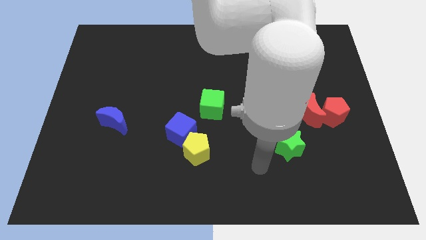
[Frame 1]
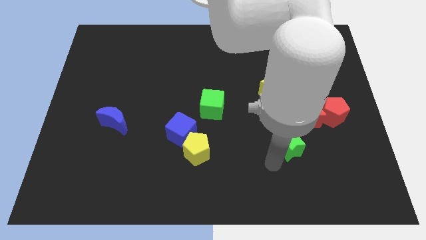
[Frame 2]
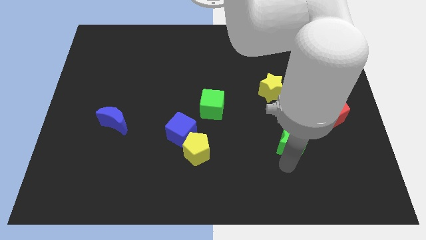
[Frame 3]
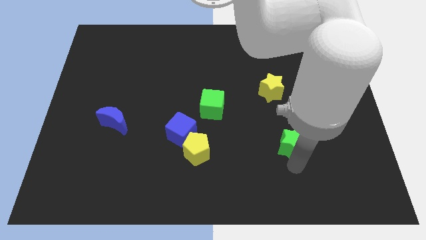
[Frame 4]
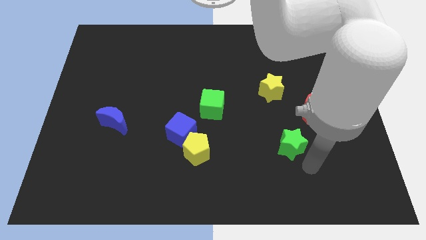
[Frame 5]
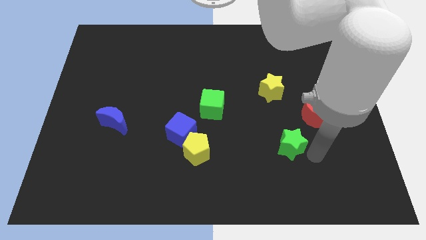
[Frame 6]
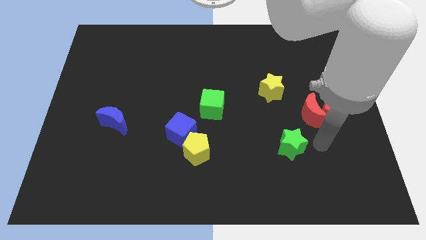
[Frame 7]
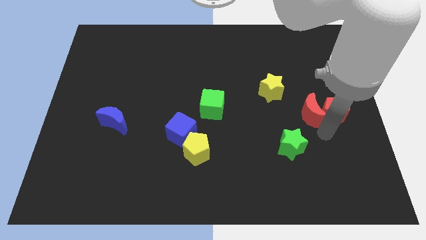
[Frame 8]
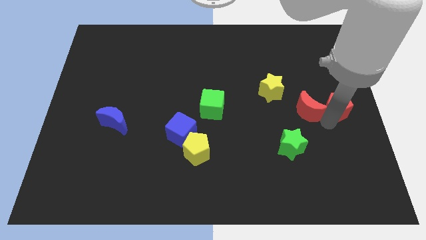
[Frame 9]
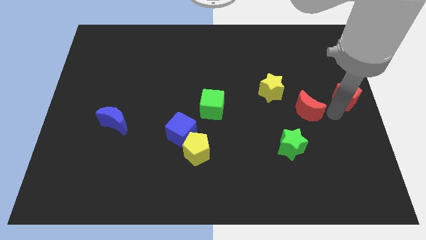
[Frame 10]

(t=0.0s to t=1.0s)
pull the red moon apart from the red pentagon

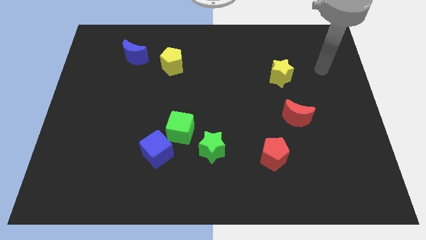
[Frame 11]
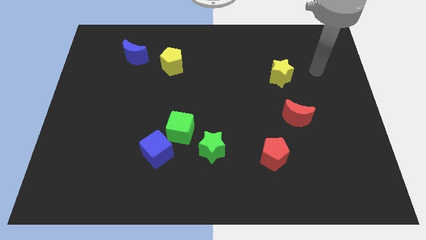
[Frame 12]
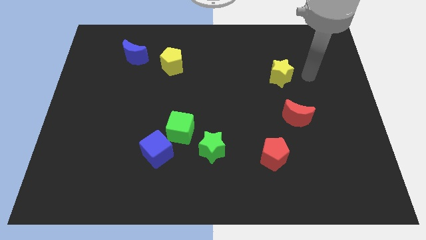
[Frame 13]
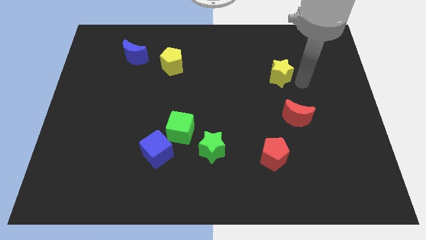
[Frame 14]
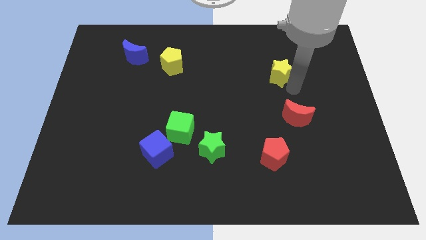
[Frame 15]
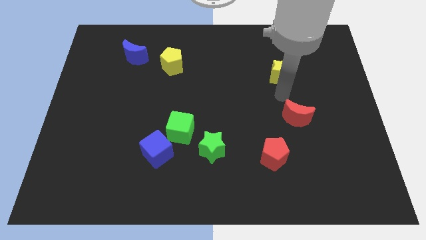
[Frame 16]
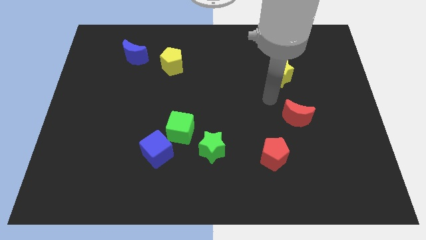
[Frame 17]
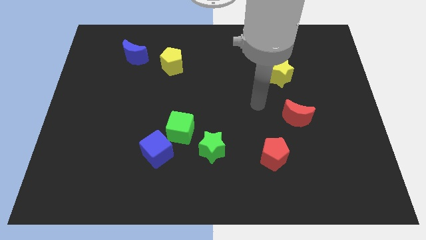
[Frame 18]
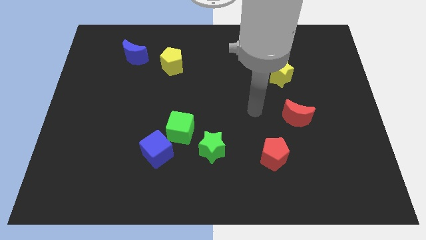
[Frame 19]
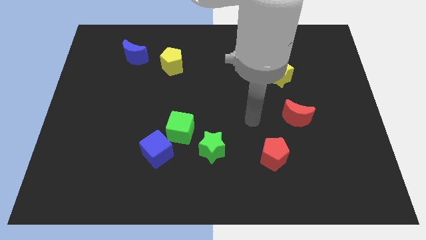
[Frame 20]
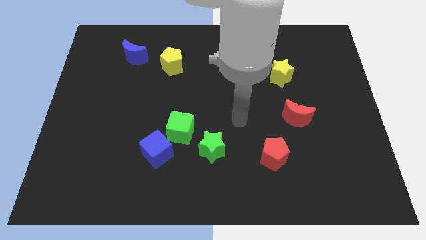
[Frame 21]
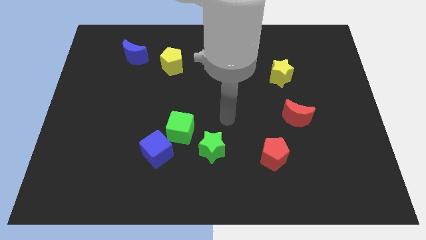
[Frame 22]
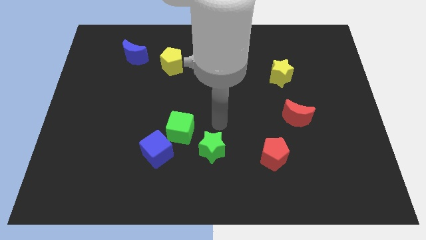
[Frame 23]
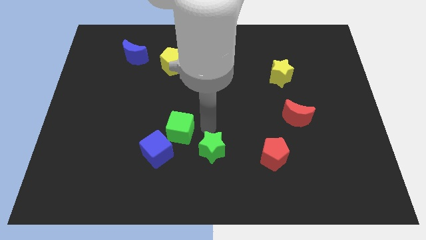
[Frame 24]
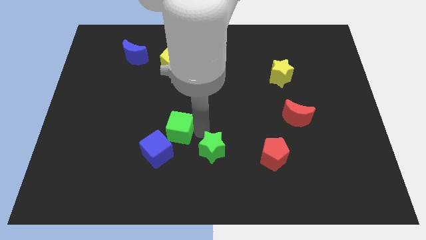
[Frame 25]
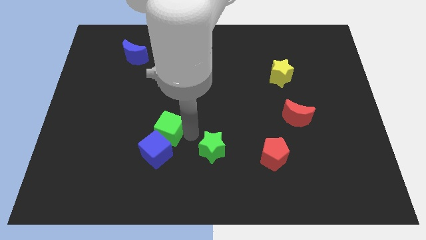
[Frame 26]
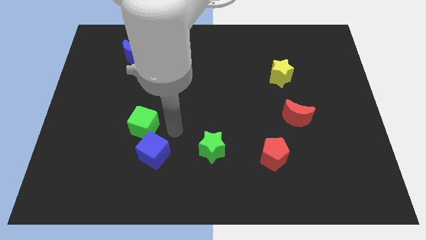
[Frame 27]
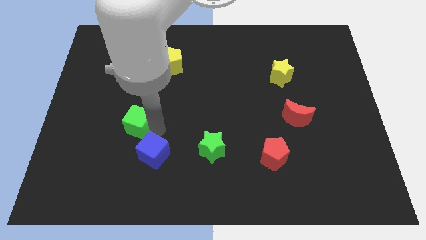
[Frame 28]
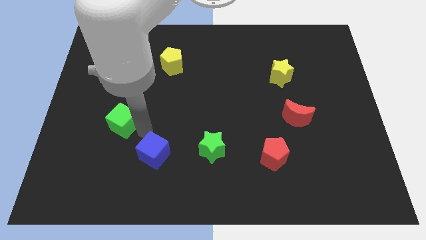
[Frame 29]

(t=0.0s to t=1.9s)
pull the blue cube apart from the green cube

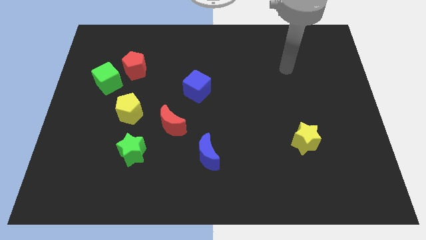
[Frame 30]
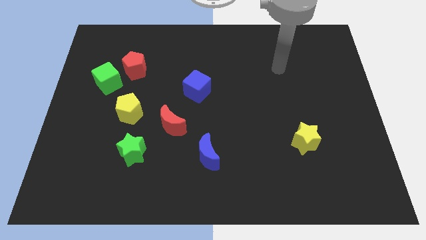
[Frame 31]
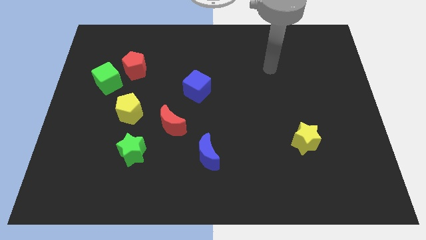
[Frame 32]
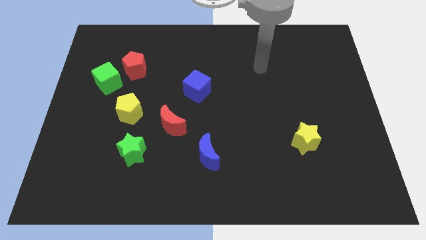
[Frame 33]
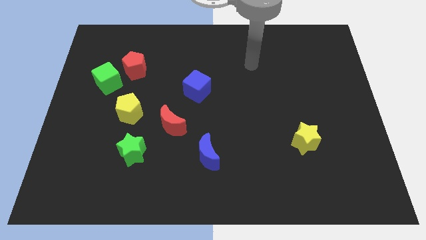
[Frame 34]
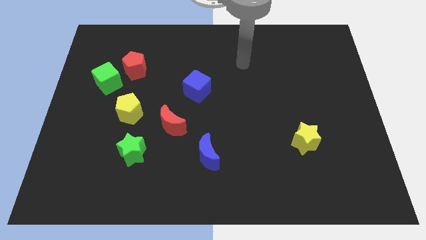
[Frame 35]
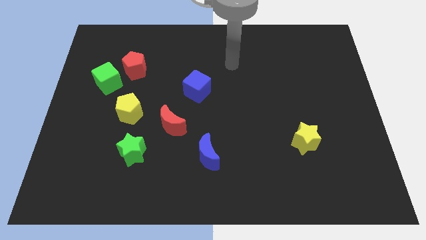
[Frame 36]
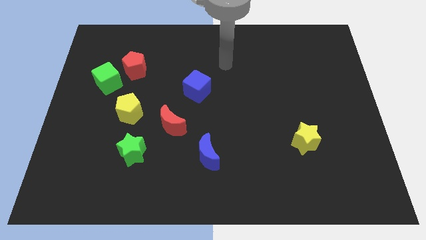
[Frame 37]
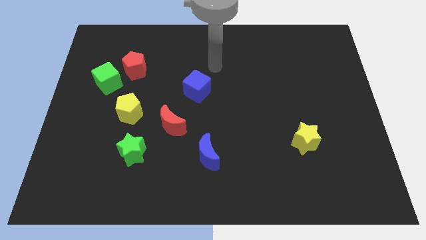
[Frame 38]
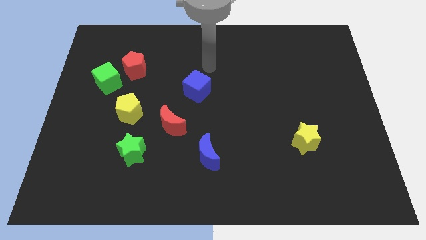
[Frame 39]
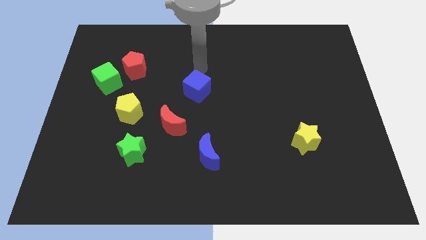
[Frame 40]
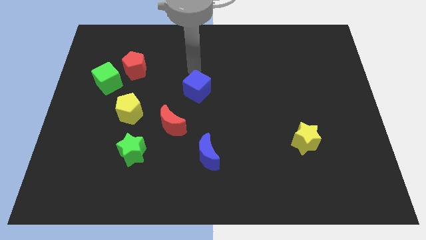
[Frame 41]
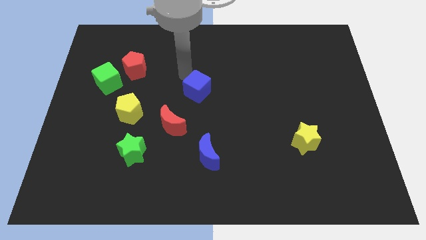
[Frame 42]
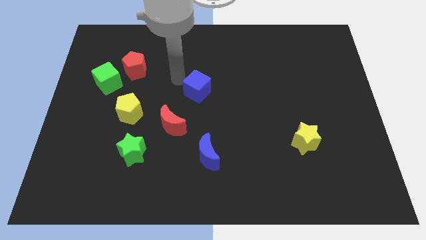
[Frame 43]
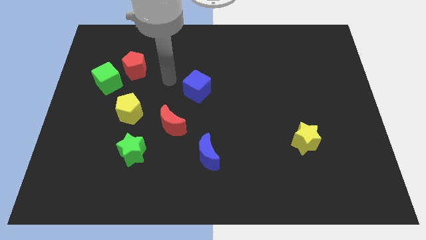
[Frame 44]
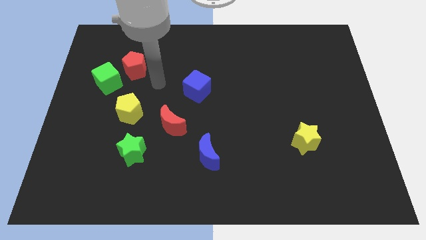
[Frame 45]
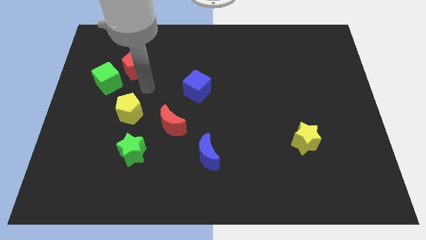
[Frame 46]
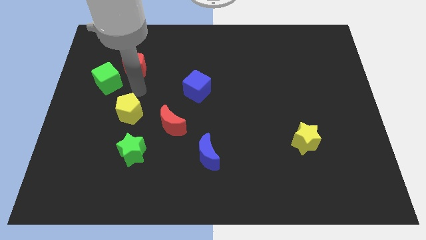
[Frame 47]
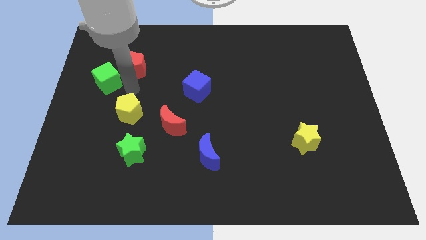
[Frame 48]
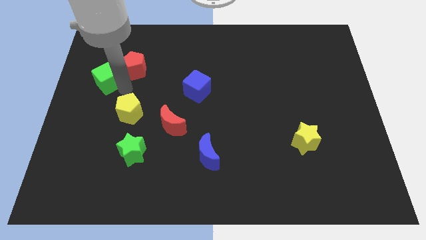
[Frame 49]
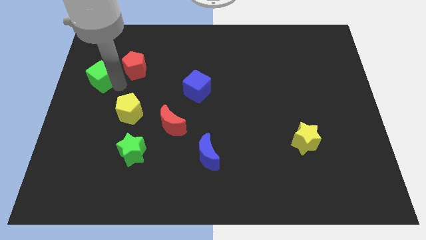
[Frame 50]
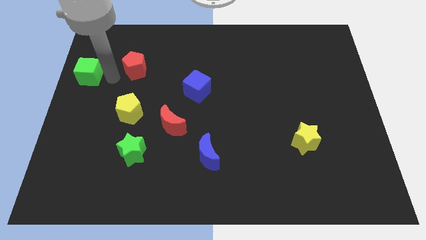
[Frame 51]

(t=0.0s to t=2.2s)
pull the red pentagon apart from the green cube

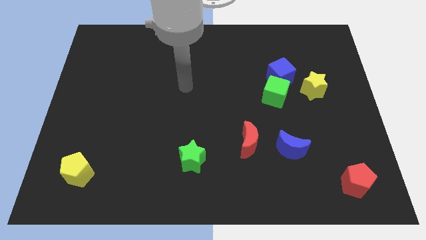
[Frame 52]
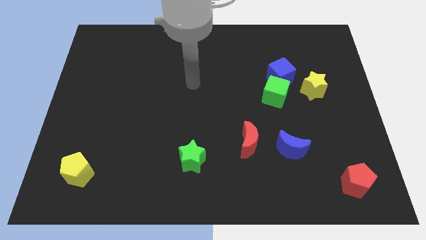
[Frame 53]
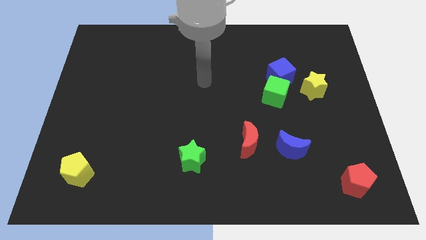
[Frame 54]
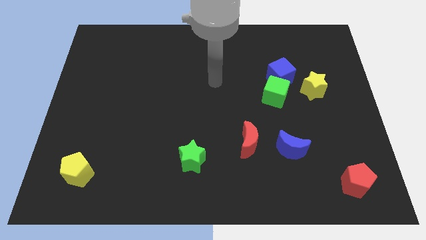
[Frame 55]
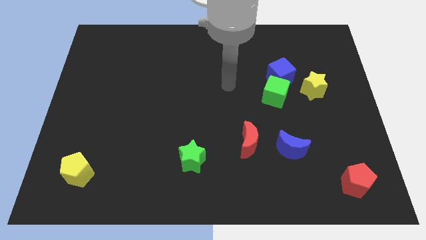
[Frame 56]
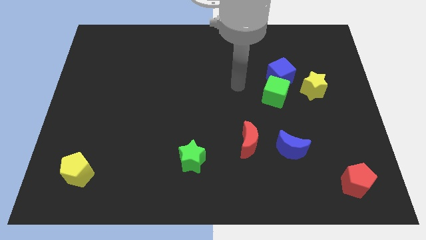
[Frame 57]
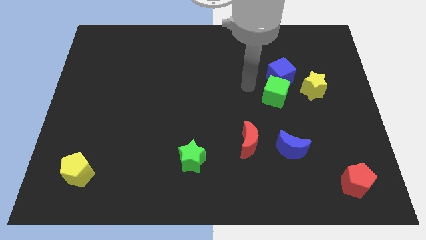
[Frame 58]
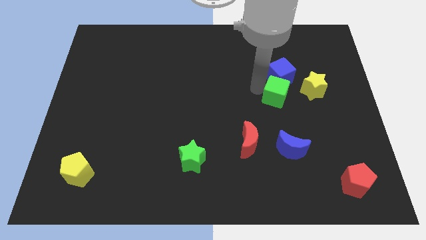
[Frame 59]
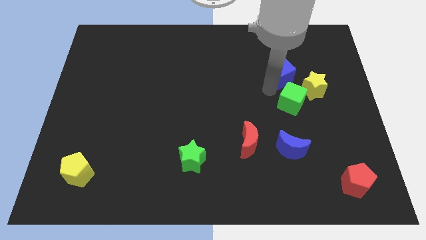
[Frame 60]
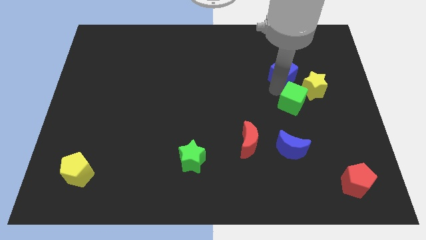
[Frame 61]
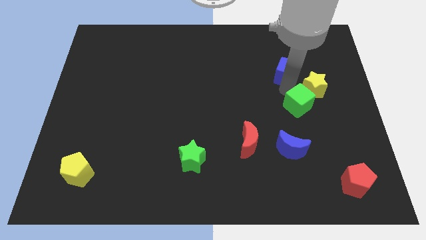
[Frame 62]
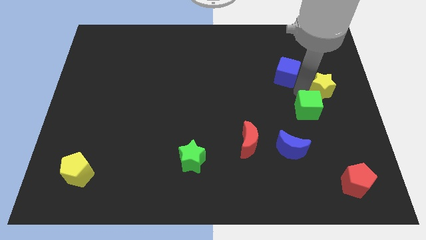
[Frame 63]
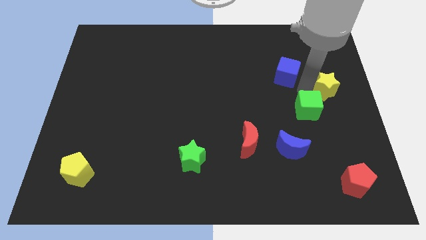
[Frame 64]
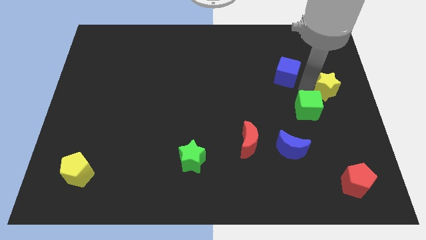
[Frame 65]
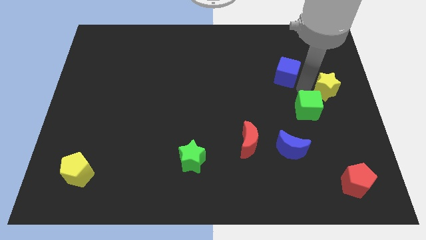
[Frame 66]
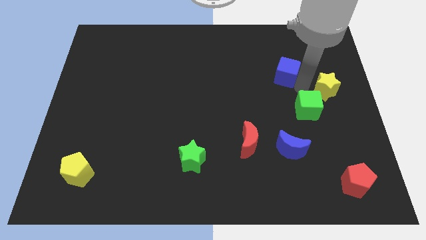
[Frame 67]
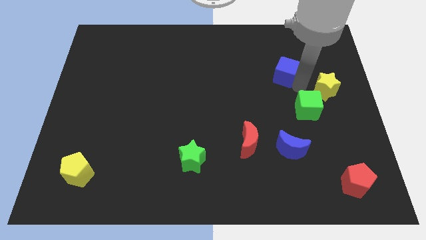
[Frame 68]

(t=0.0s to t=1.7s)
move the blue cube away from the green cube and yellow star

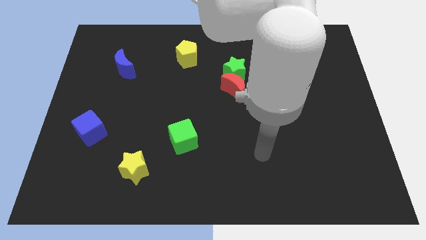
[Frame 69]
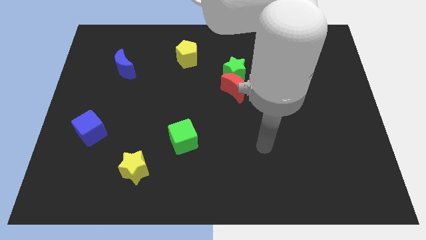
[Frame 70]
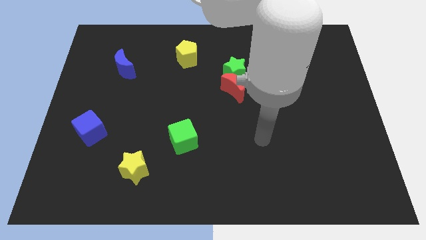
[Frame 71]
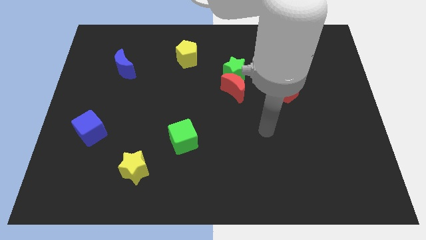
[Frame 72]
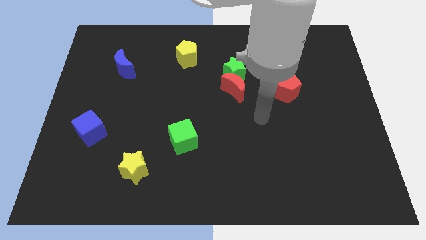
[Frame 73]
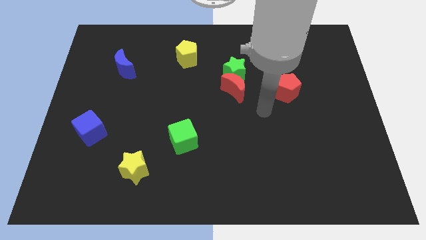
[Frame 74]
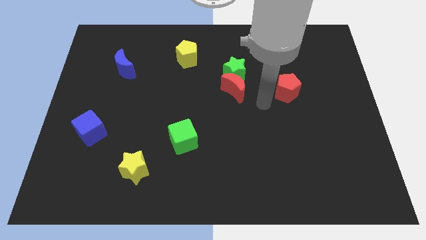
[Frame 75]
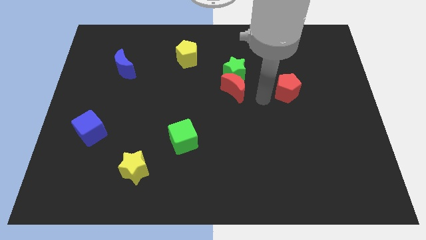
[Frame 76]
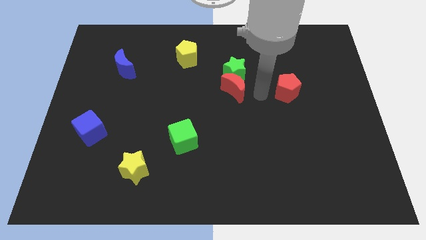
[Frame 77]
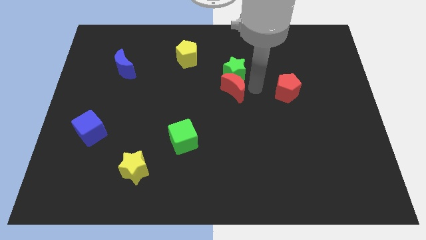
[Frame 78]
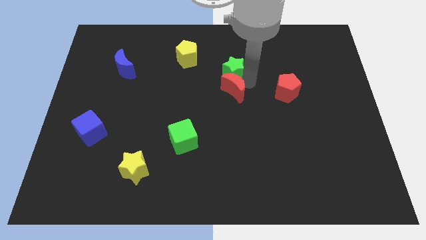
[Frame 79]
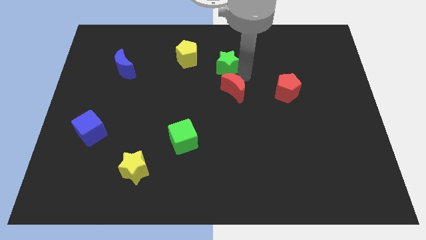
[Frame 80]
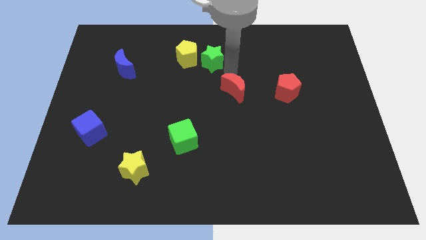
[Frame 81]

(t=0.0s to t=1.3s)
pull the red moon apart from the green star

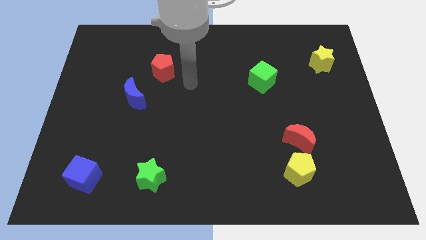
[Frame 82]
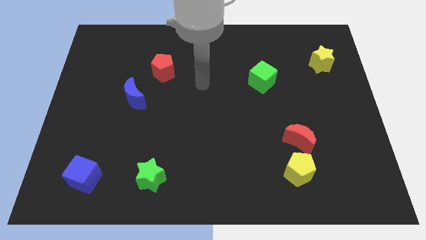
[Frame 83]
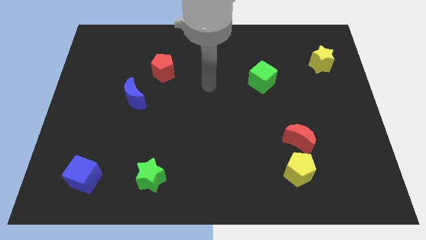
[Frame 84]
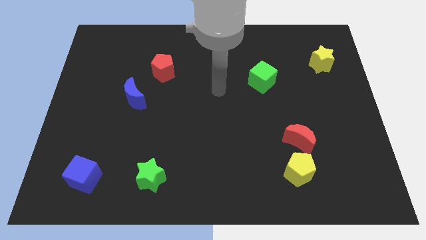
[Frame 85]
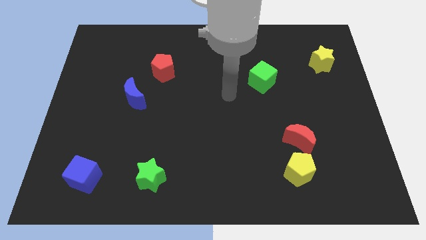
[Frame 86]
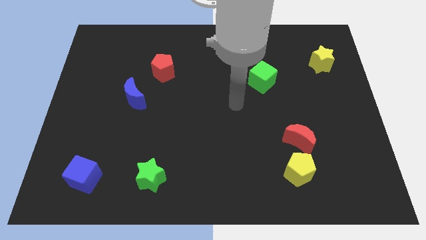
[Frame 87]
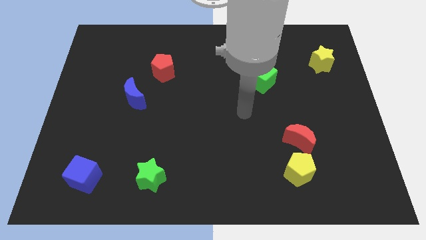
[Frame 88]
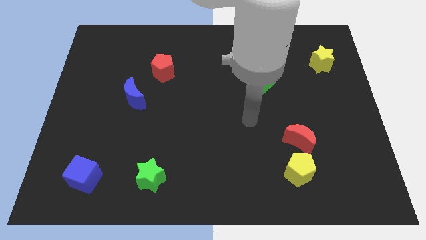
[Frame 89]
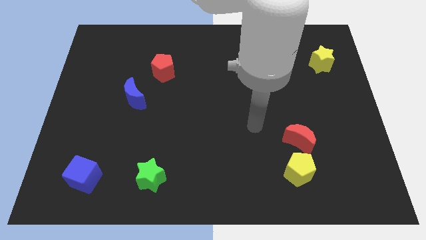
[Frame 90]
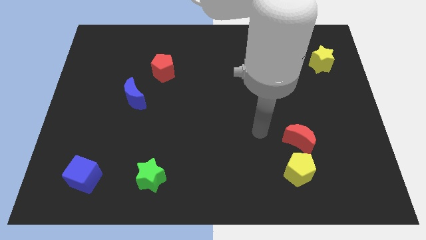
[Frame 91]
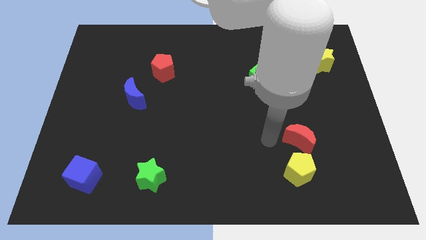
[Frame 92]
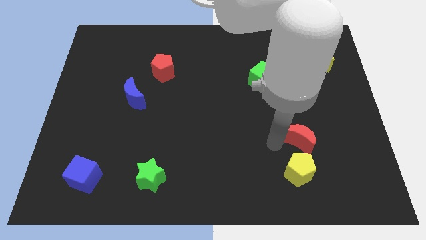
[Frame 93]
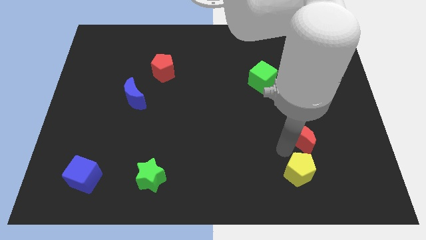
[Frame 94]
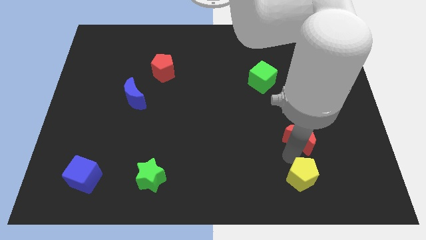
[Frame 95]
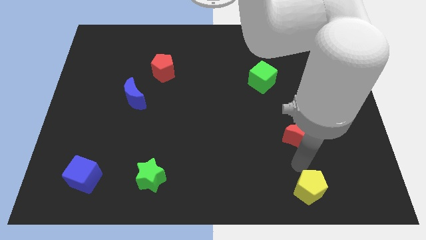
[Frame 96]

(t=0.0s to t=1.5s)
move the red moon away from the yellow pentagon
